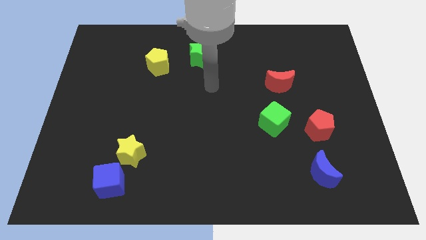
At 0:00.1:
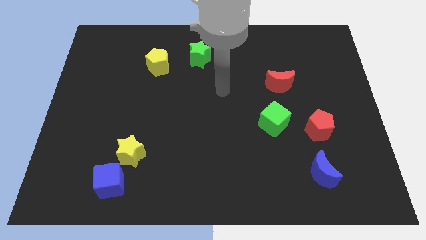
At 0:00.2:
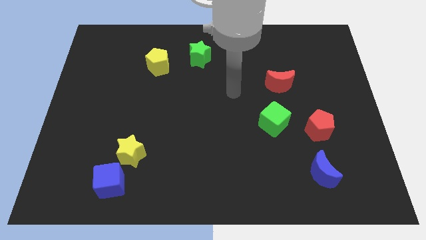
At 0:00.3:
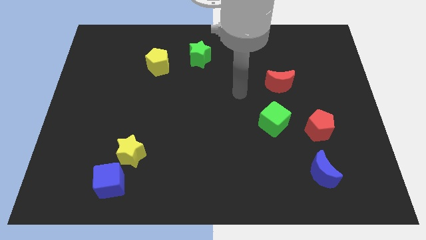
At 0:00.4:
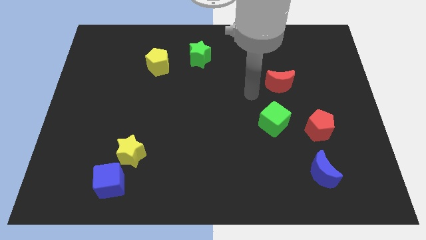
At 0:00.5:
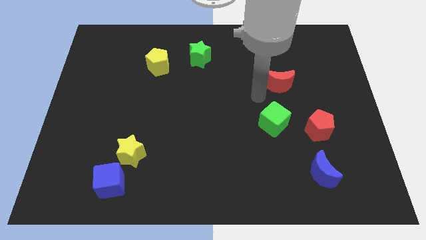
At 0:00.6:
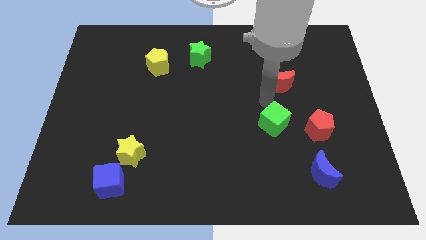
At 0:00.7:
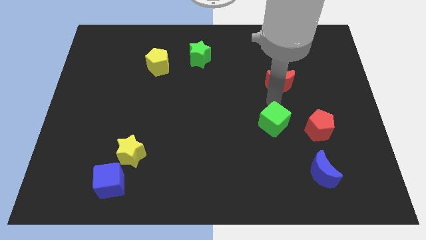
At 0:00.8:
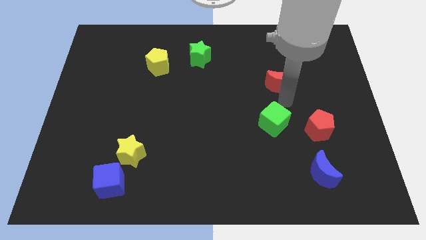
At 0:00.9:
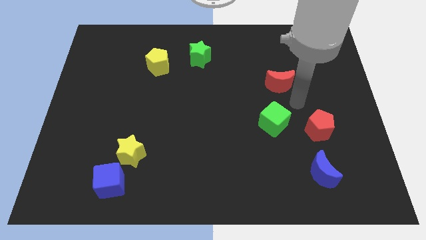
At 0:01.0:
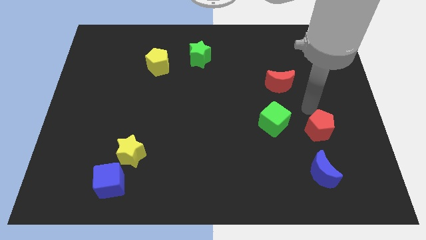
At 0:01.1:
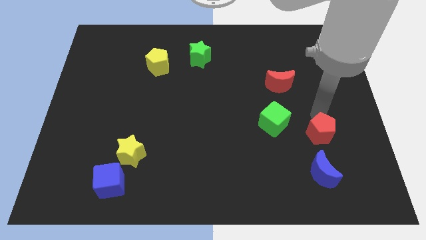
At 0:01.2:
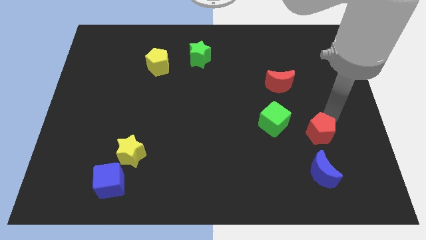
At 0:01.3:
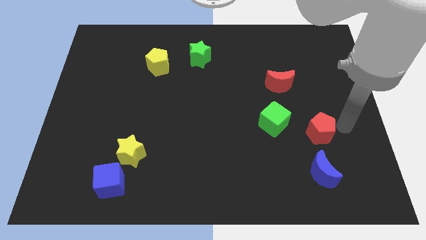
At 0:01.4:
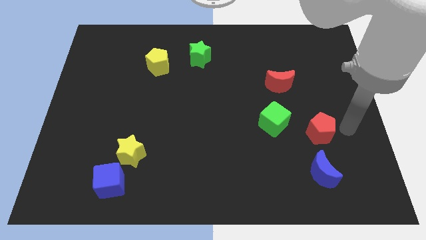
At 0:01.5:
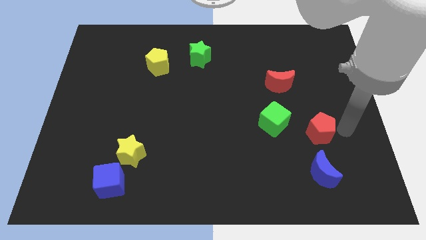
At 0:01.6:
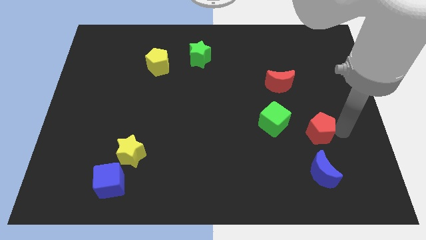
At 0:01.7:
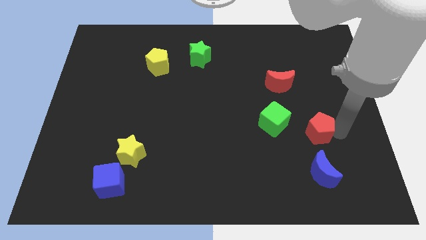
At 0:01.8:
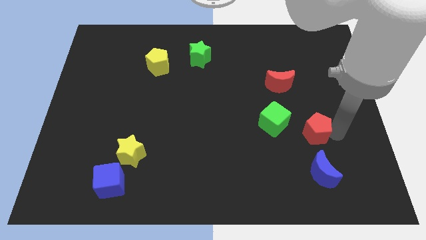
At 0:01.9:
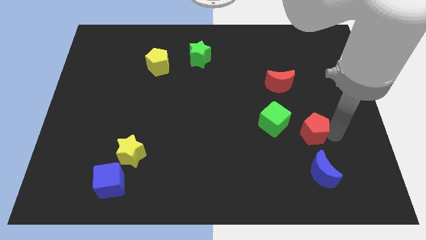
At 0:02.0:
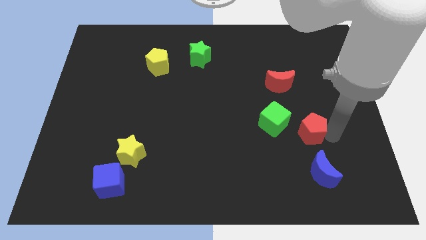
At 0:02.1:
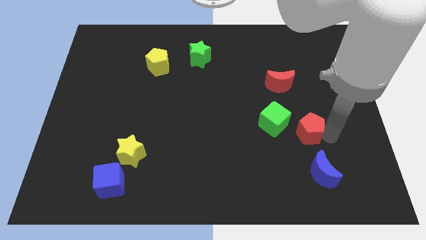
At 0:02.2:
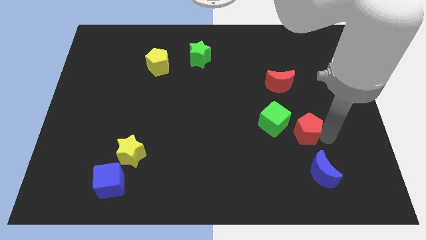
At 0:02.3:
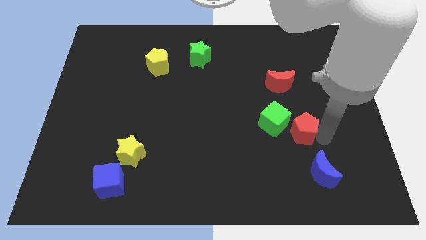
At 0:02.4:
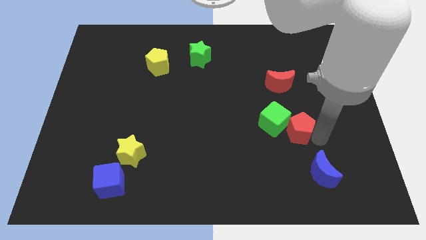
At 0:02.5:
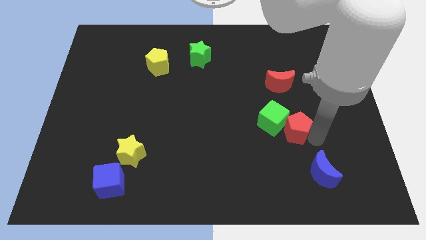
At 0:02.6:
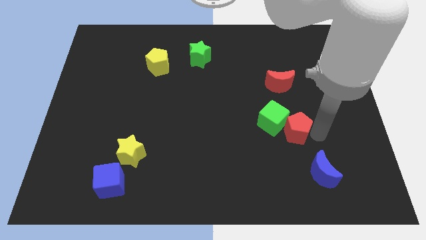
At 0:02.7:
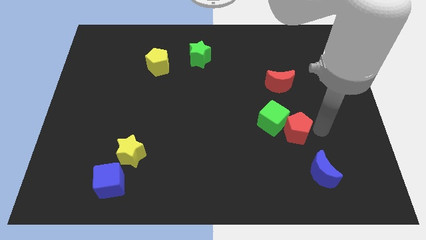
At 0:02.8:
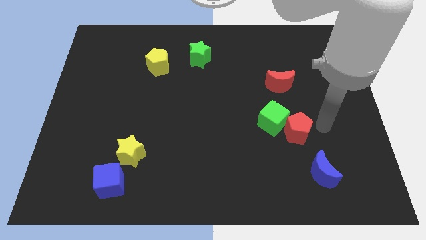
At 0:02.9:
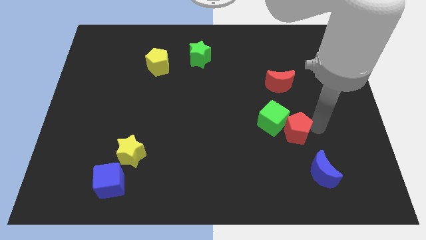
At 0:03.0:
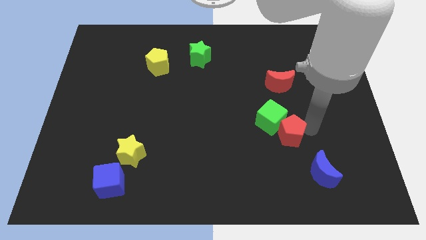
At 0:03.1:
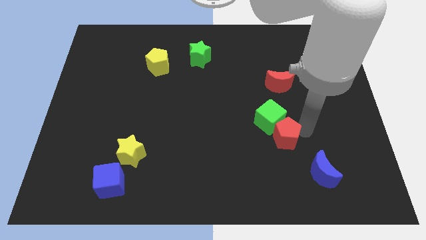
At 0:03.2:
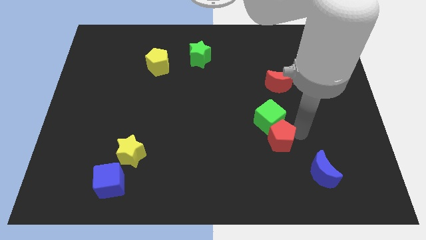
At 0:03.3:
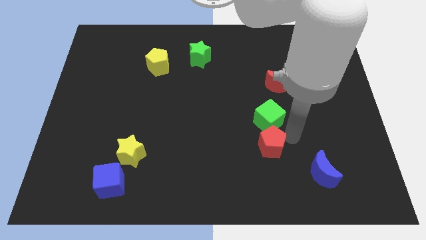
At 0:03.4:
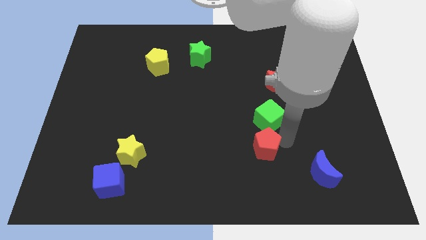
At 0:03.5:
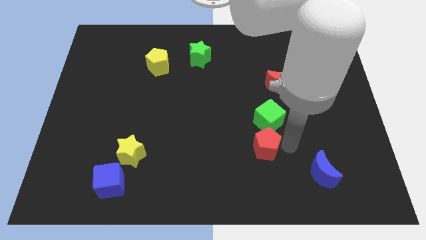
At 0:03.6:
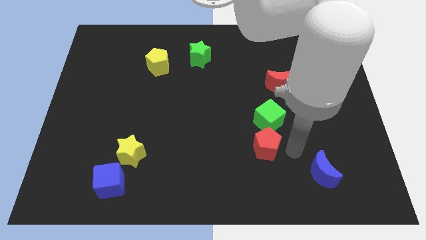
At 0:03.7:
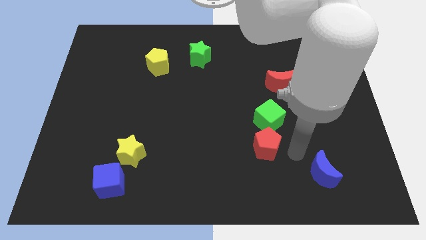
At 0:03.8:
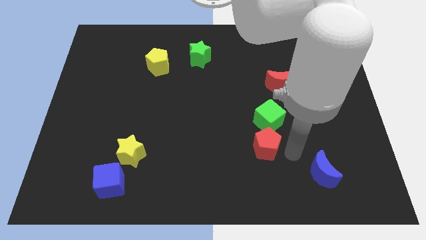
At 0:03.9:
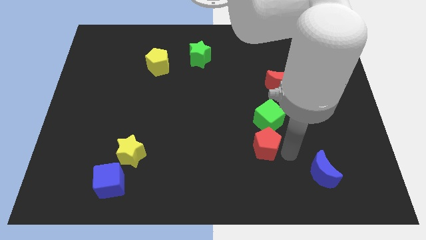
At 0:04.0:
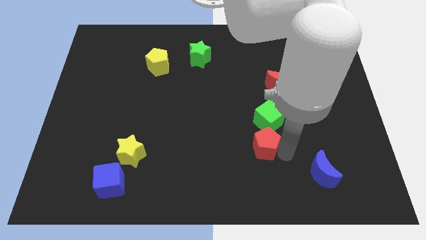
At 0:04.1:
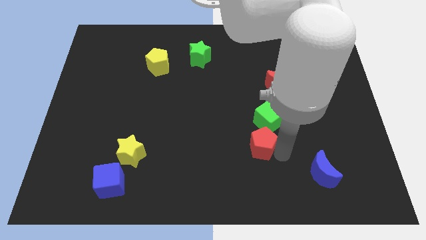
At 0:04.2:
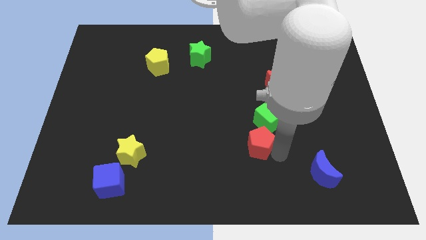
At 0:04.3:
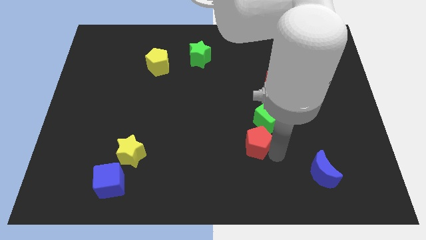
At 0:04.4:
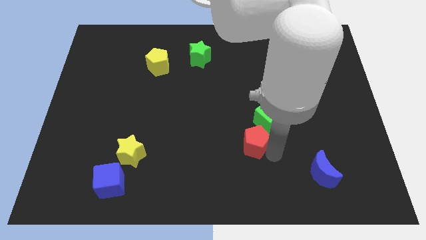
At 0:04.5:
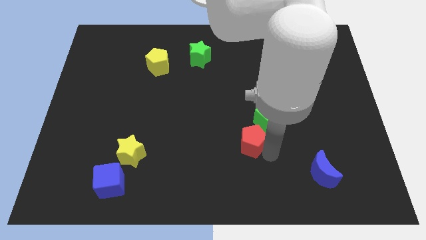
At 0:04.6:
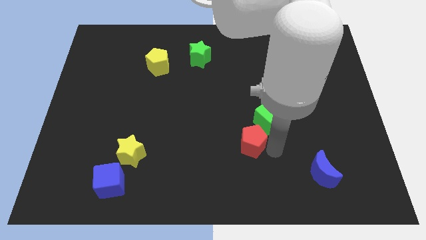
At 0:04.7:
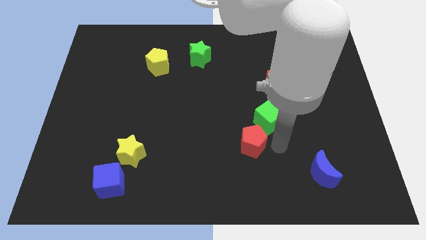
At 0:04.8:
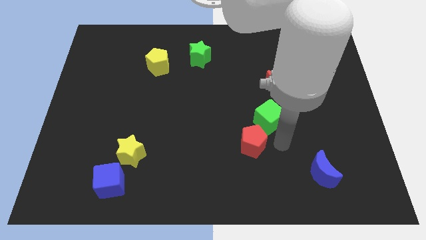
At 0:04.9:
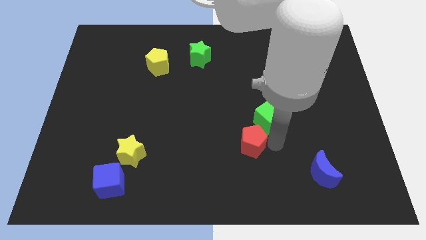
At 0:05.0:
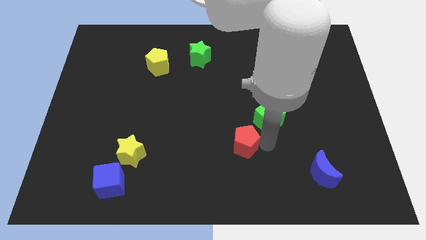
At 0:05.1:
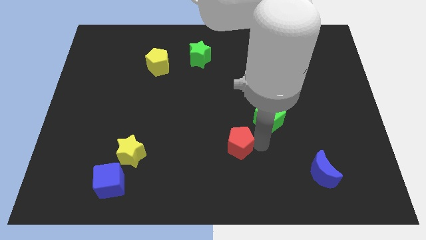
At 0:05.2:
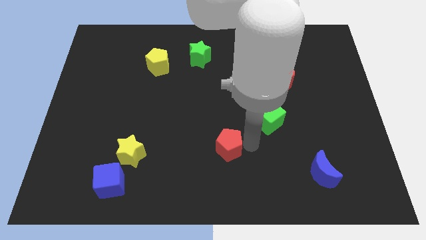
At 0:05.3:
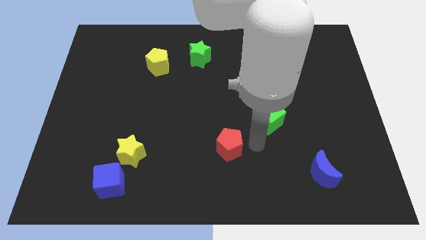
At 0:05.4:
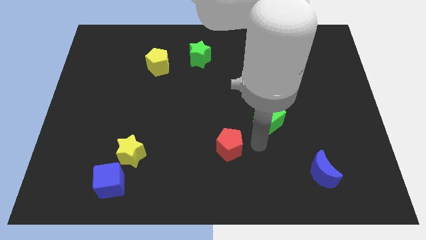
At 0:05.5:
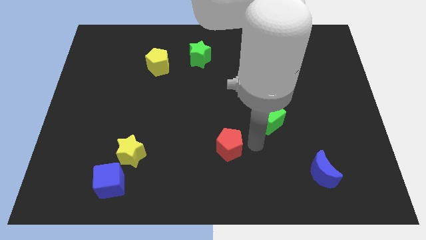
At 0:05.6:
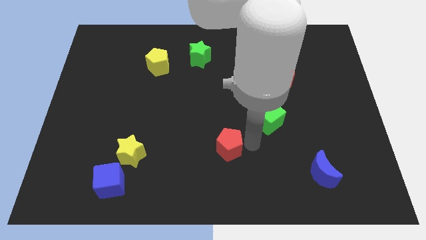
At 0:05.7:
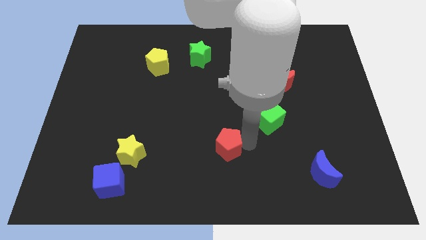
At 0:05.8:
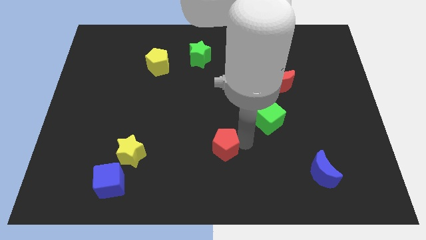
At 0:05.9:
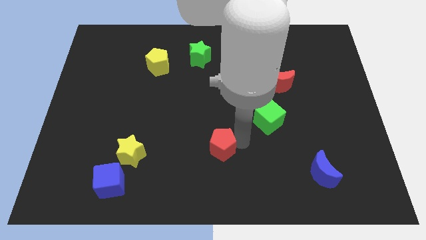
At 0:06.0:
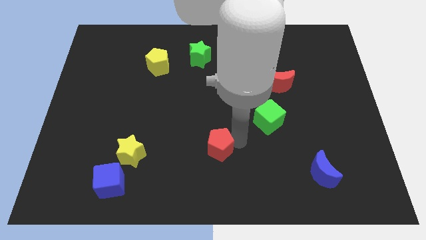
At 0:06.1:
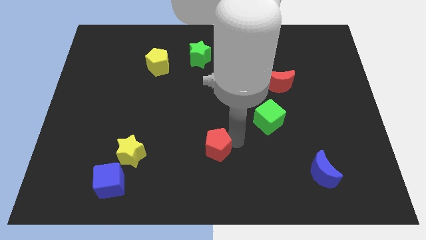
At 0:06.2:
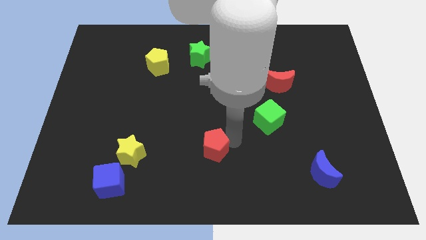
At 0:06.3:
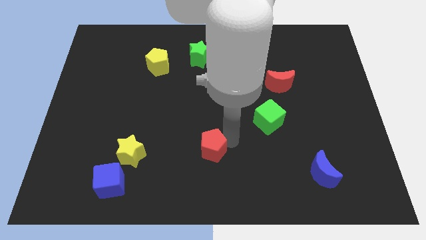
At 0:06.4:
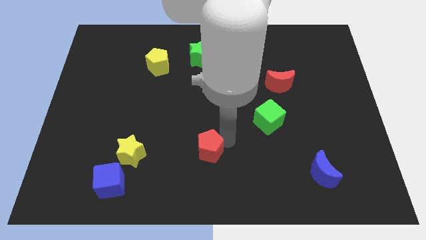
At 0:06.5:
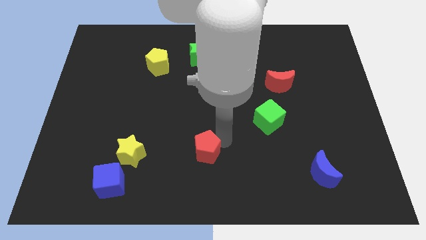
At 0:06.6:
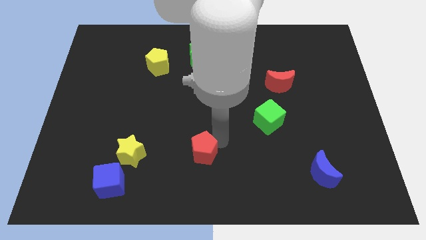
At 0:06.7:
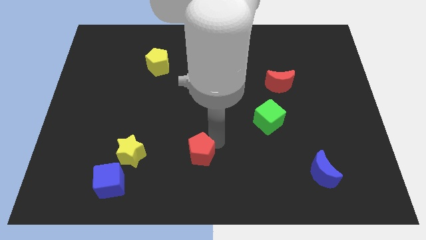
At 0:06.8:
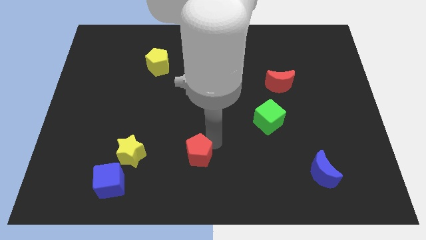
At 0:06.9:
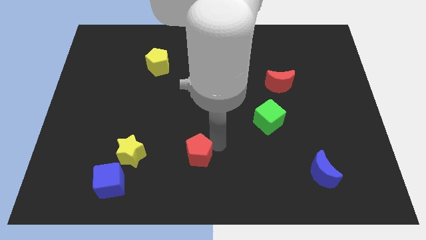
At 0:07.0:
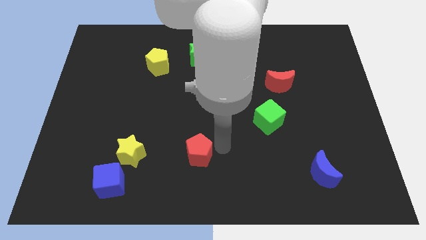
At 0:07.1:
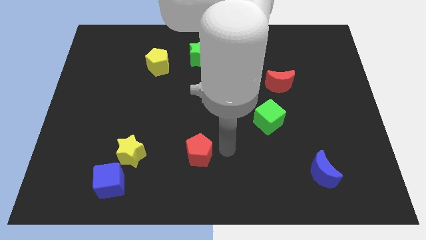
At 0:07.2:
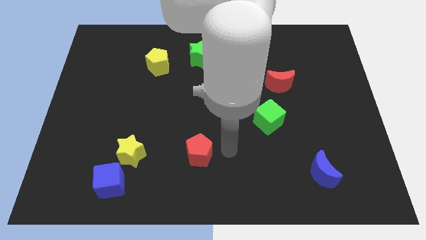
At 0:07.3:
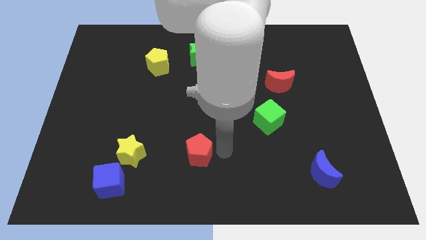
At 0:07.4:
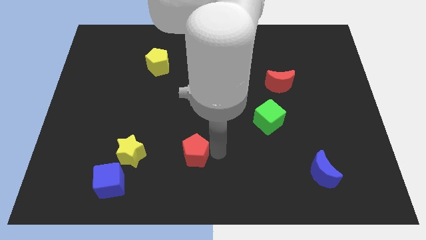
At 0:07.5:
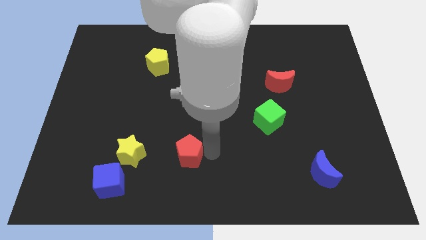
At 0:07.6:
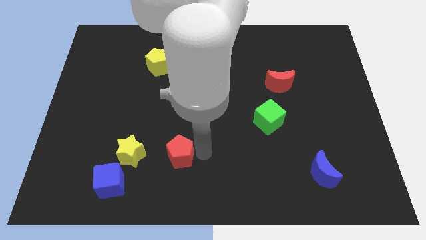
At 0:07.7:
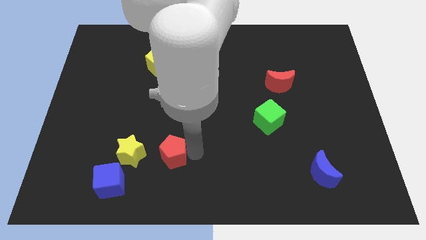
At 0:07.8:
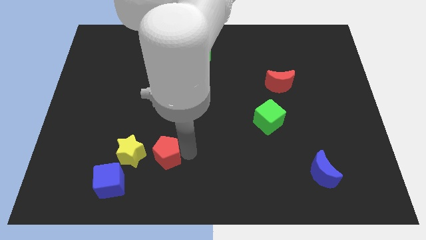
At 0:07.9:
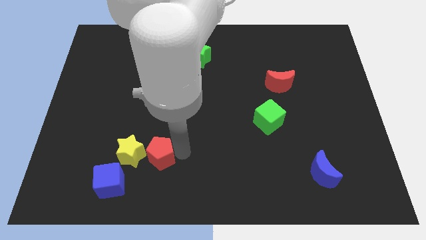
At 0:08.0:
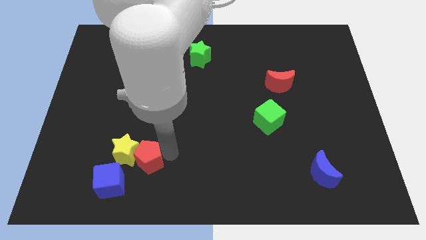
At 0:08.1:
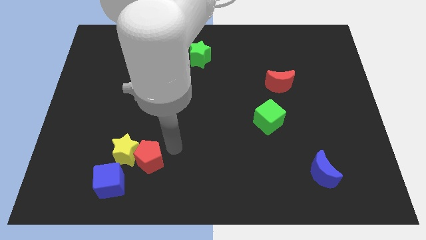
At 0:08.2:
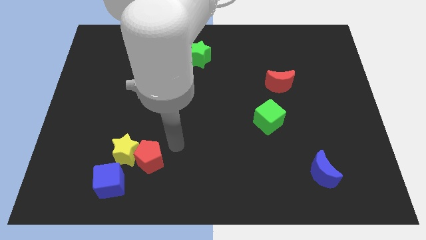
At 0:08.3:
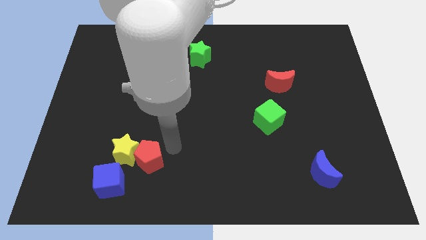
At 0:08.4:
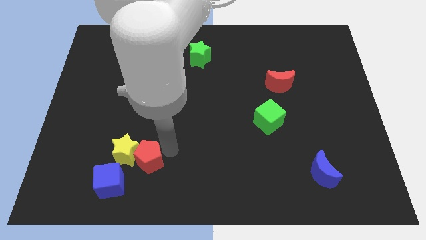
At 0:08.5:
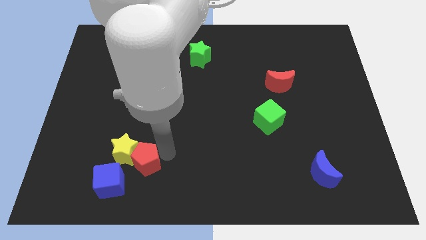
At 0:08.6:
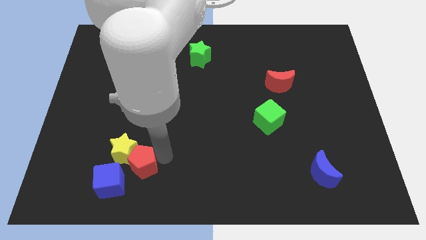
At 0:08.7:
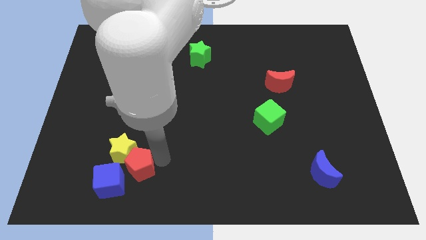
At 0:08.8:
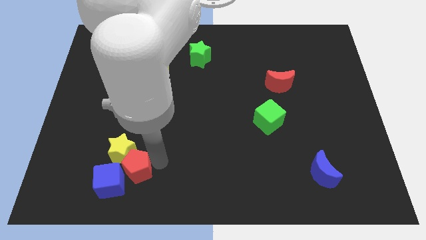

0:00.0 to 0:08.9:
put the red pentagon to the blue cube
